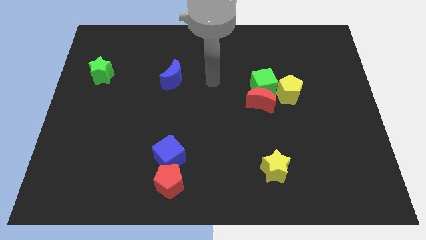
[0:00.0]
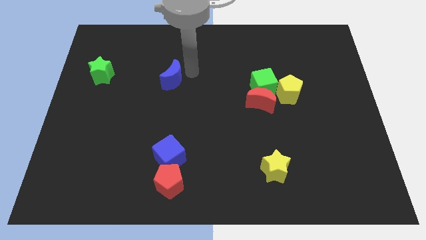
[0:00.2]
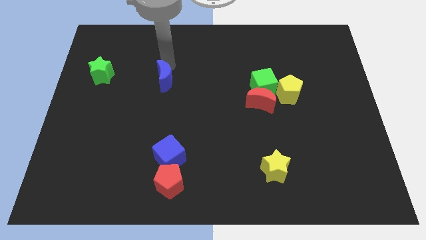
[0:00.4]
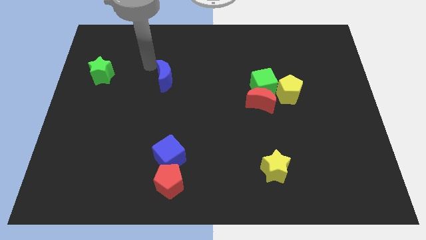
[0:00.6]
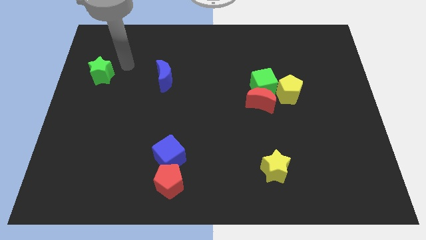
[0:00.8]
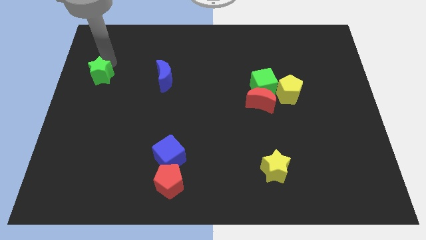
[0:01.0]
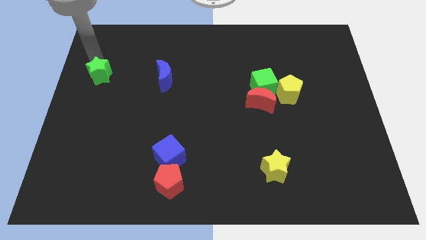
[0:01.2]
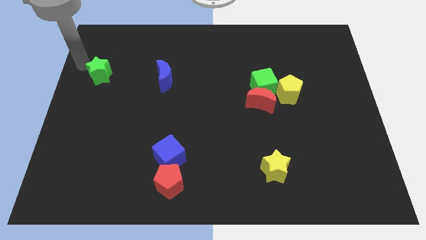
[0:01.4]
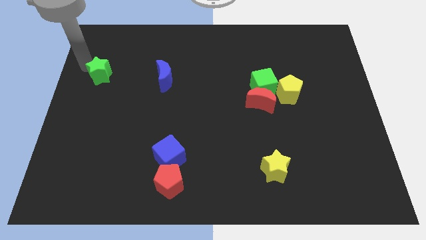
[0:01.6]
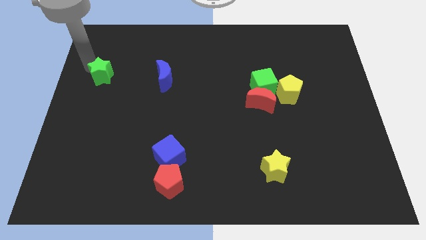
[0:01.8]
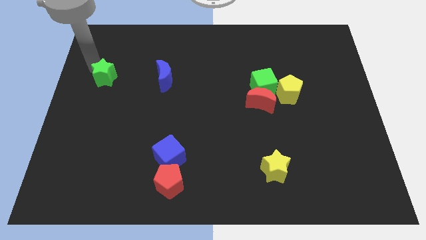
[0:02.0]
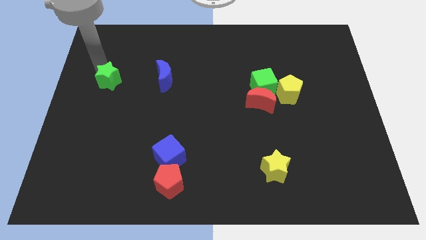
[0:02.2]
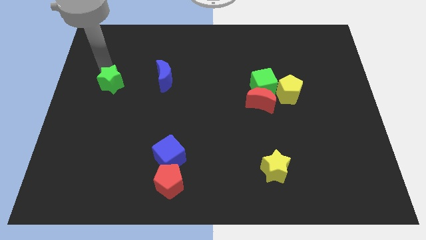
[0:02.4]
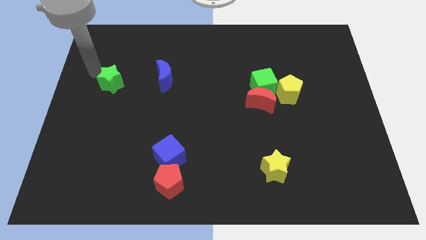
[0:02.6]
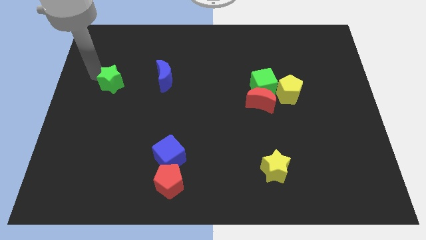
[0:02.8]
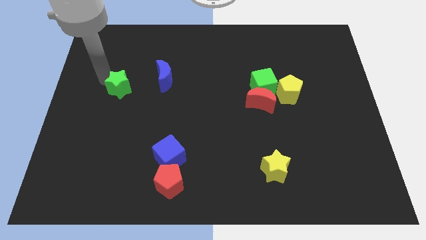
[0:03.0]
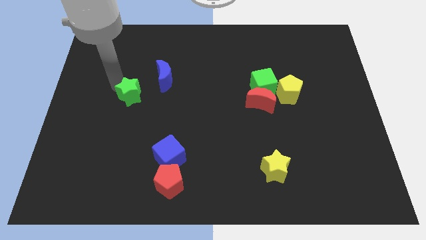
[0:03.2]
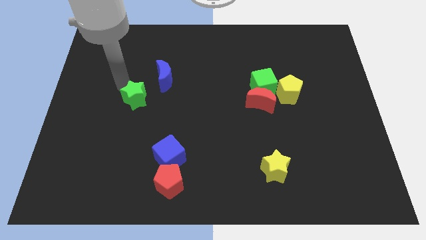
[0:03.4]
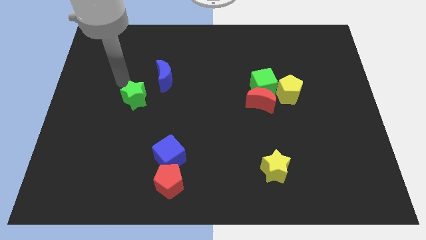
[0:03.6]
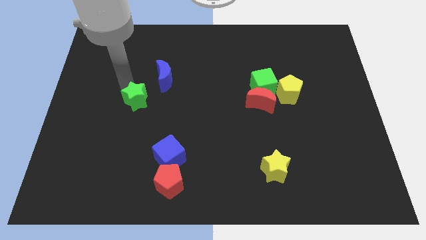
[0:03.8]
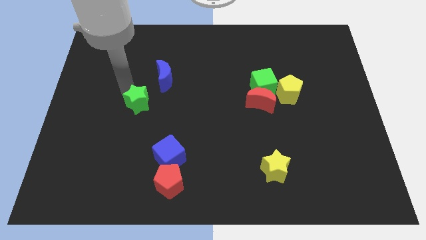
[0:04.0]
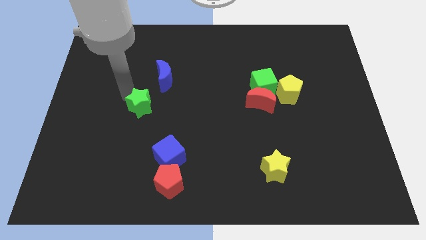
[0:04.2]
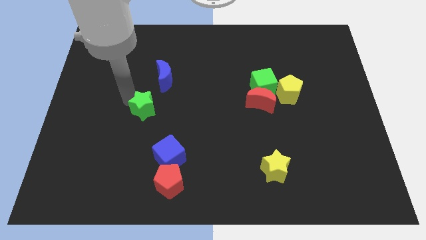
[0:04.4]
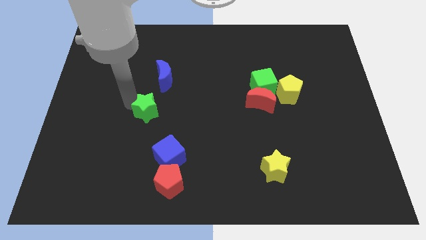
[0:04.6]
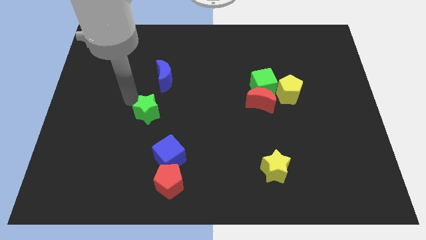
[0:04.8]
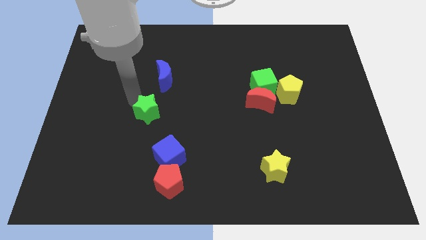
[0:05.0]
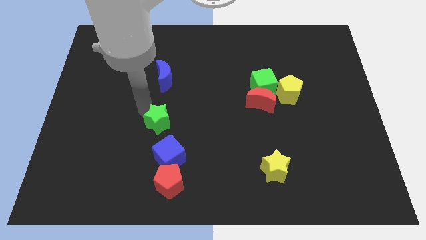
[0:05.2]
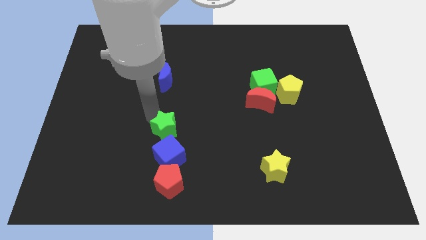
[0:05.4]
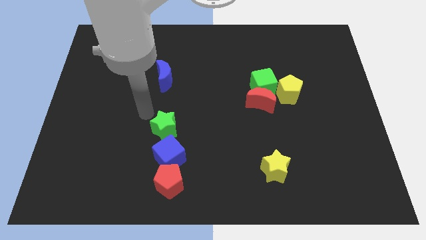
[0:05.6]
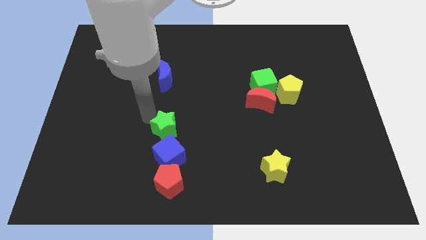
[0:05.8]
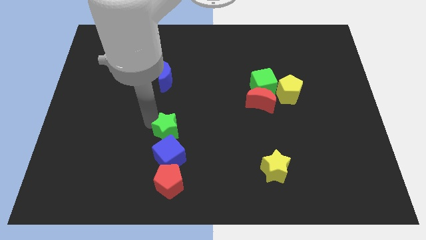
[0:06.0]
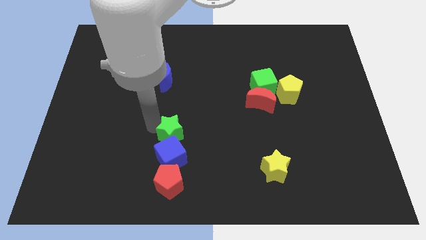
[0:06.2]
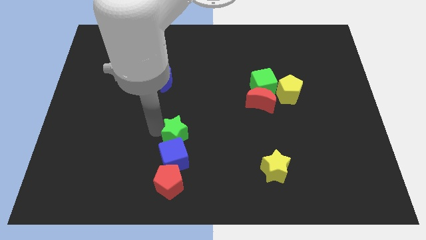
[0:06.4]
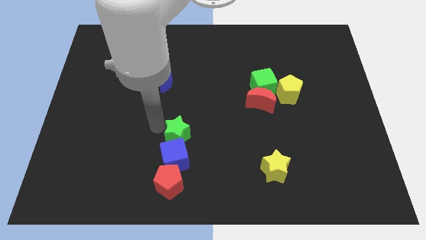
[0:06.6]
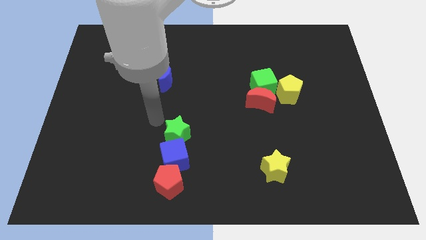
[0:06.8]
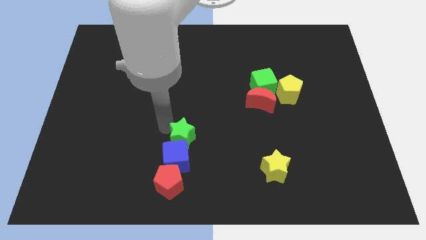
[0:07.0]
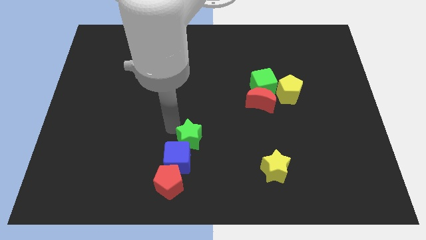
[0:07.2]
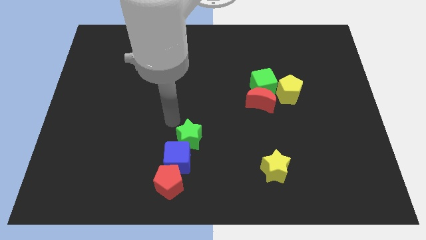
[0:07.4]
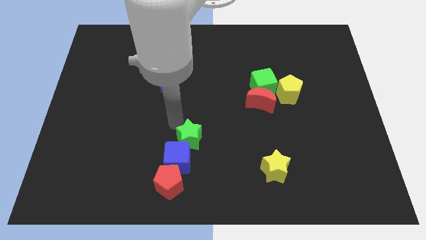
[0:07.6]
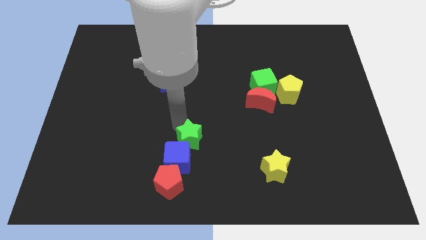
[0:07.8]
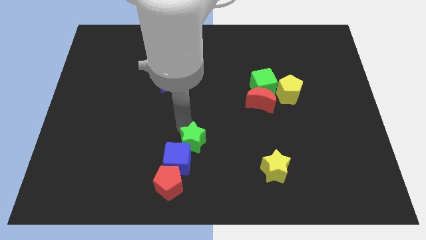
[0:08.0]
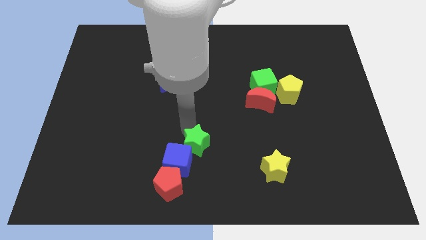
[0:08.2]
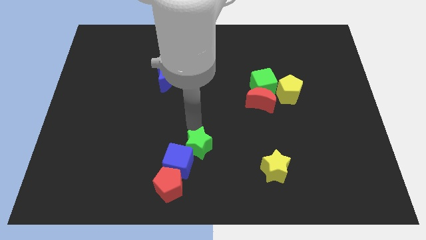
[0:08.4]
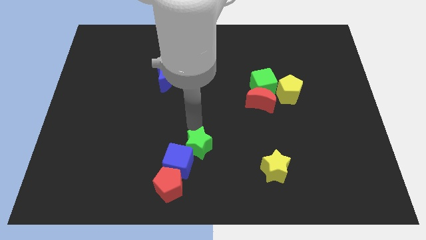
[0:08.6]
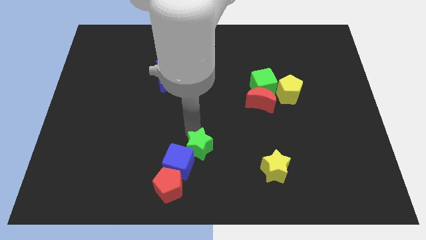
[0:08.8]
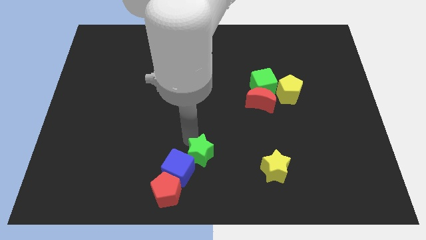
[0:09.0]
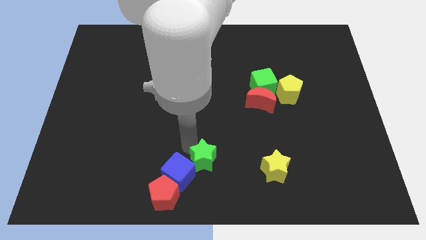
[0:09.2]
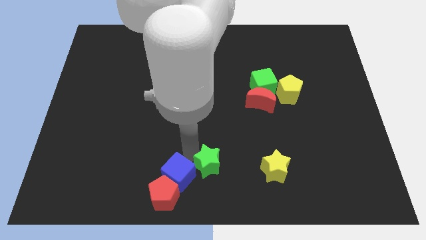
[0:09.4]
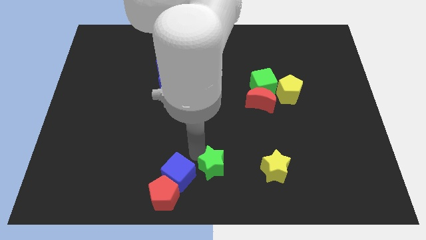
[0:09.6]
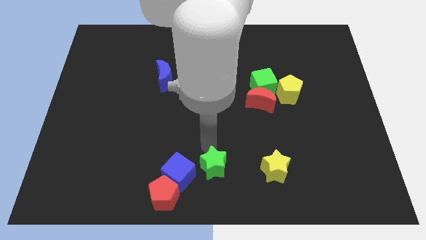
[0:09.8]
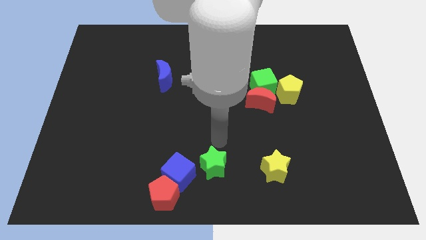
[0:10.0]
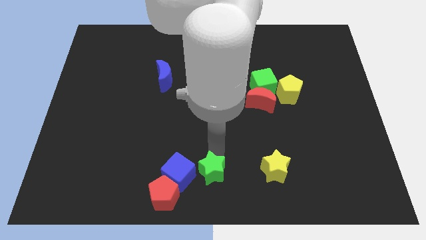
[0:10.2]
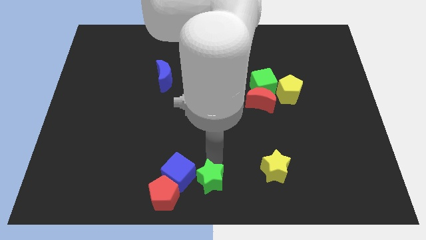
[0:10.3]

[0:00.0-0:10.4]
move the green star to the bottom right side of the blue cube

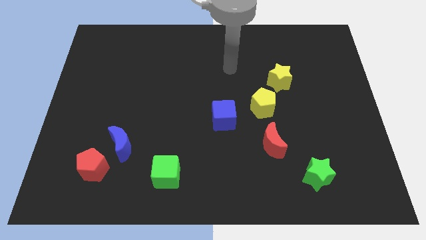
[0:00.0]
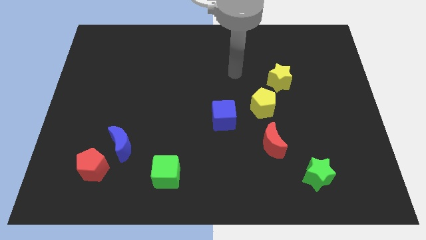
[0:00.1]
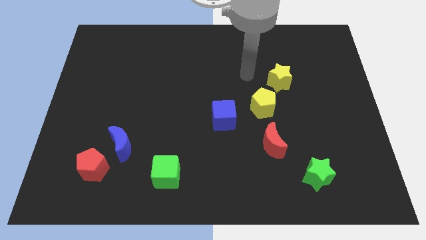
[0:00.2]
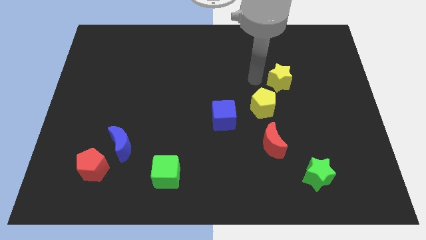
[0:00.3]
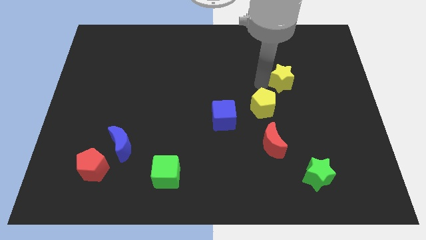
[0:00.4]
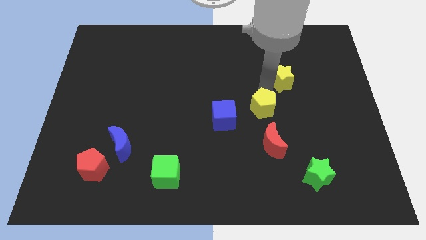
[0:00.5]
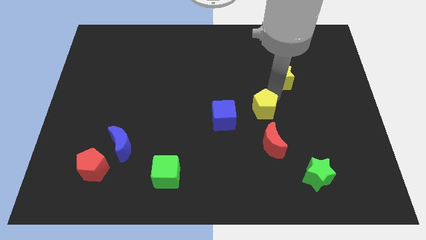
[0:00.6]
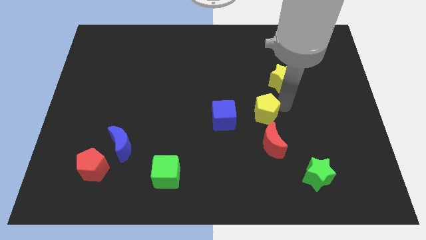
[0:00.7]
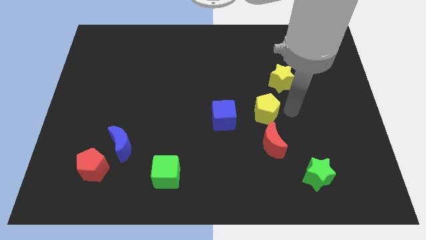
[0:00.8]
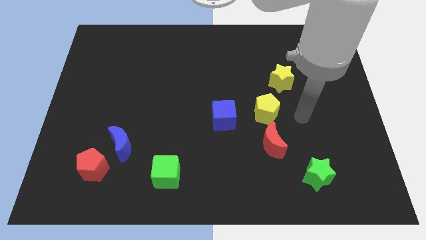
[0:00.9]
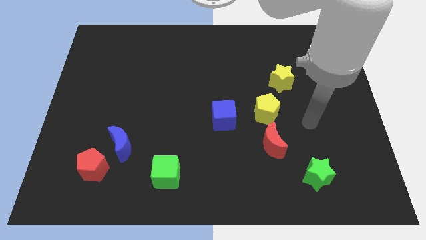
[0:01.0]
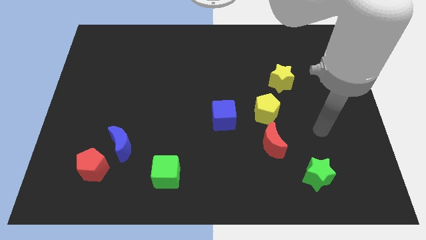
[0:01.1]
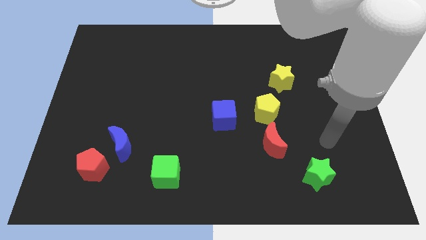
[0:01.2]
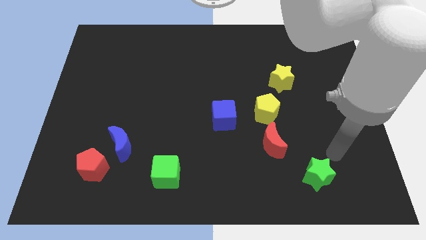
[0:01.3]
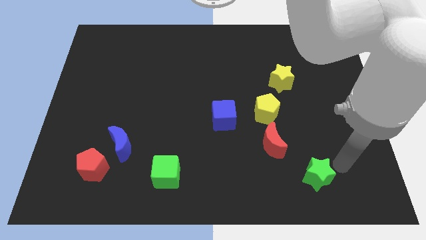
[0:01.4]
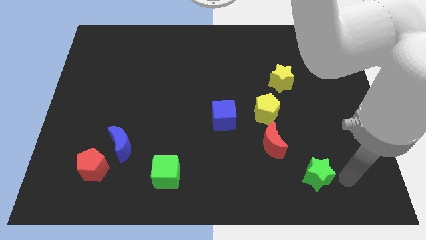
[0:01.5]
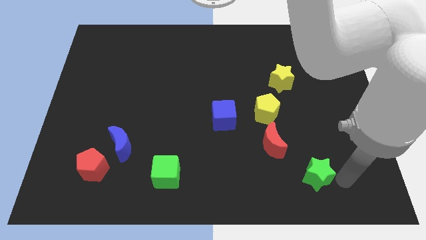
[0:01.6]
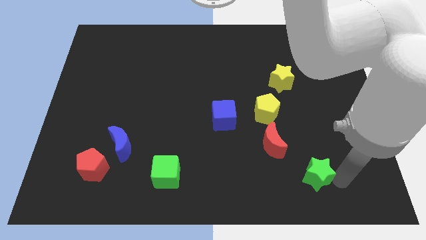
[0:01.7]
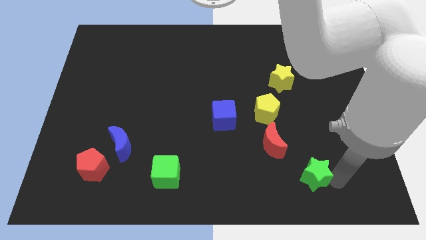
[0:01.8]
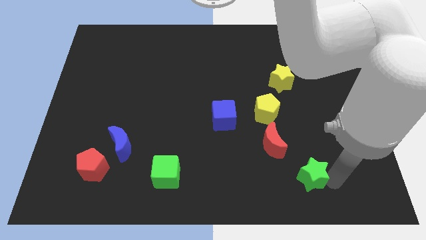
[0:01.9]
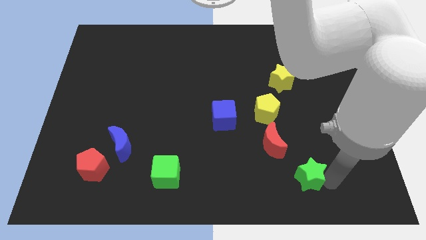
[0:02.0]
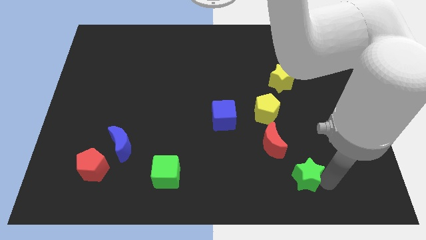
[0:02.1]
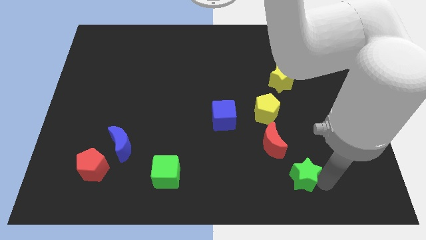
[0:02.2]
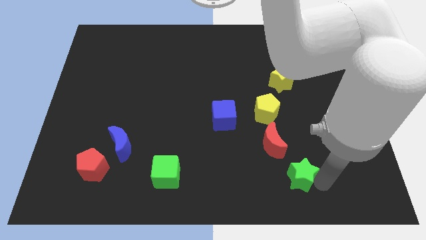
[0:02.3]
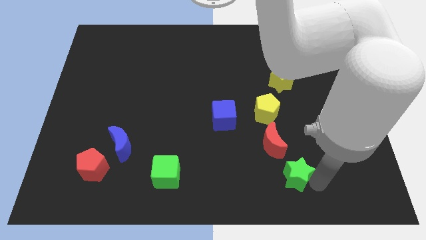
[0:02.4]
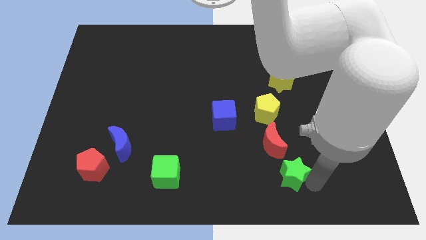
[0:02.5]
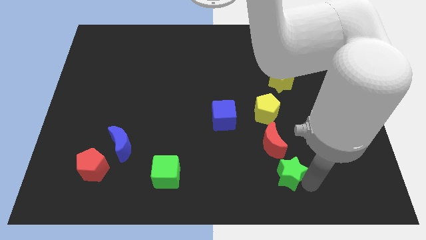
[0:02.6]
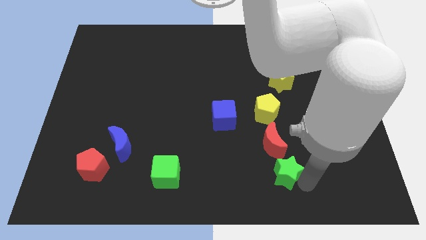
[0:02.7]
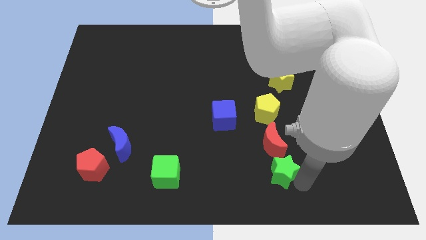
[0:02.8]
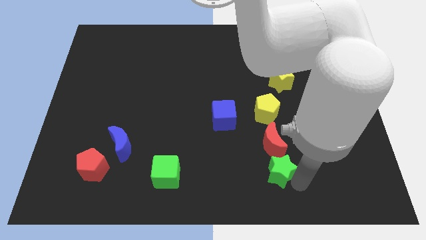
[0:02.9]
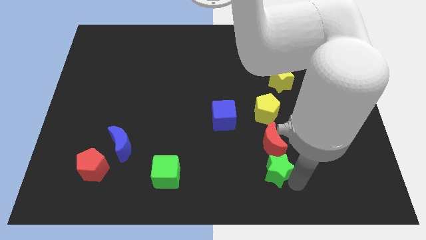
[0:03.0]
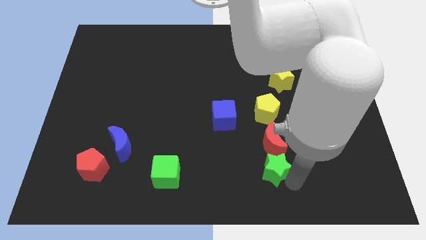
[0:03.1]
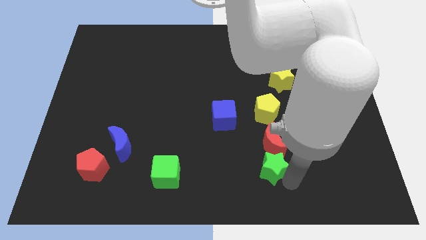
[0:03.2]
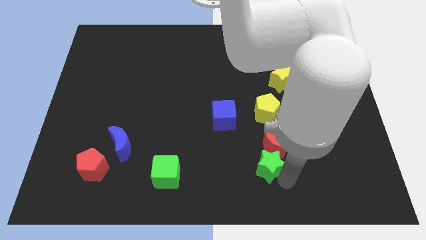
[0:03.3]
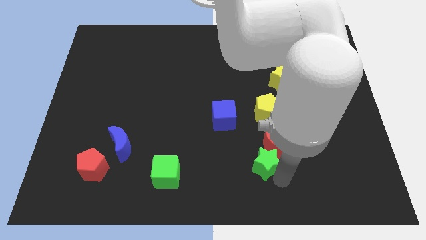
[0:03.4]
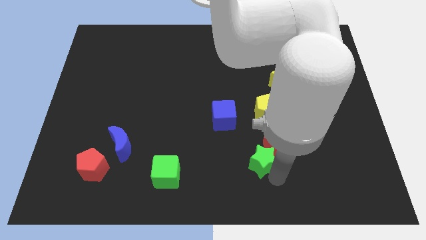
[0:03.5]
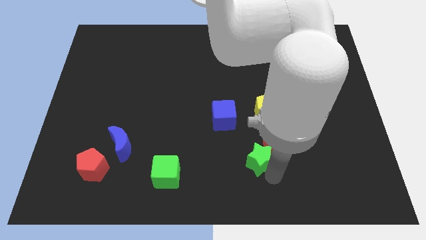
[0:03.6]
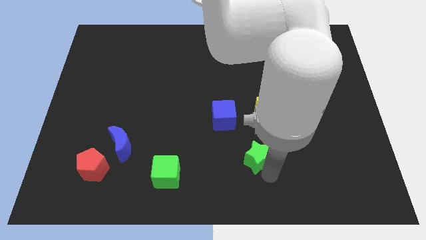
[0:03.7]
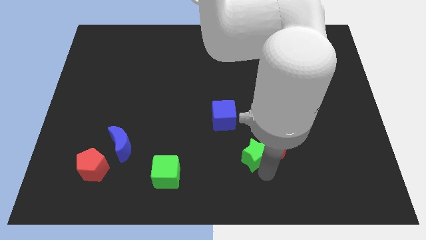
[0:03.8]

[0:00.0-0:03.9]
push the green star to the bottom right of the blue cube
